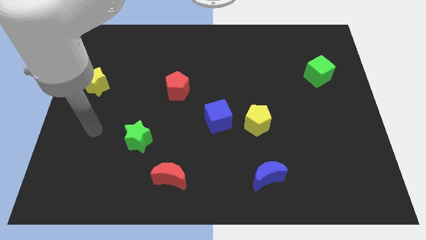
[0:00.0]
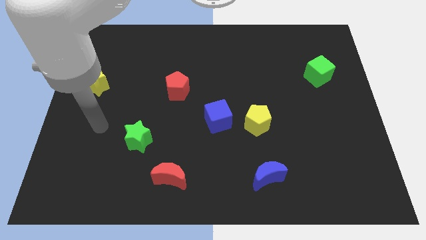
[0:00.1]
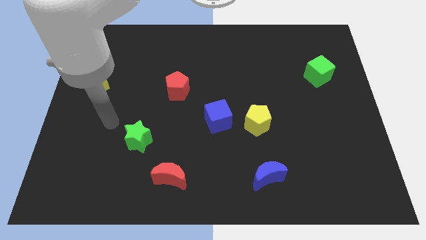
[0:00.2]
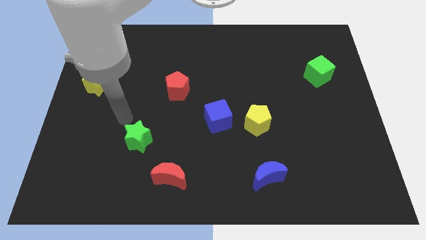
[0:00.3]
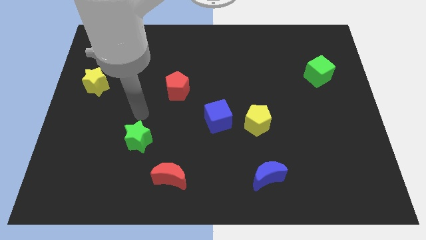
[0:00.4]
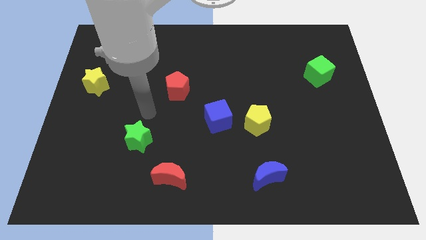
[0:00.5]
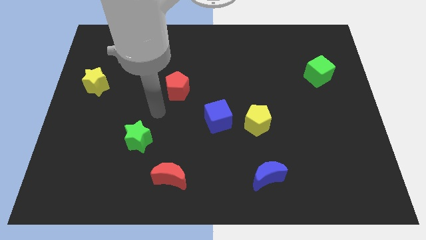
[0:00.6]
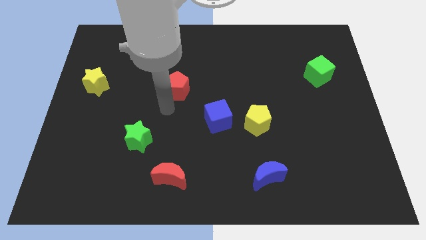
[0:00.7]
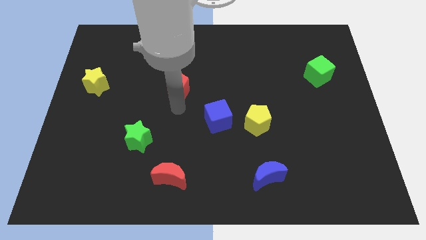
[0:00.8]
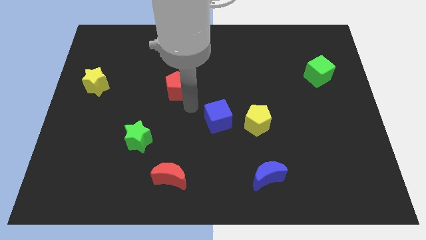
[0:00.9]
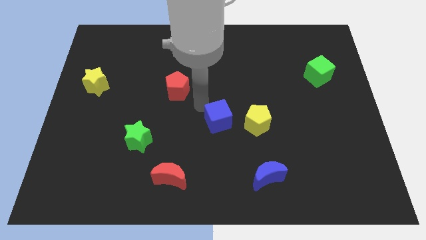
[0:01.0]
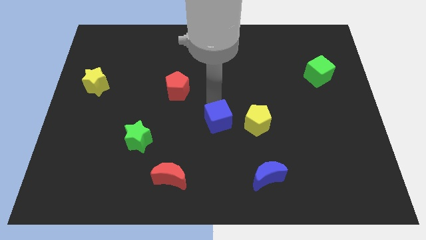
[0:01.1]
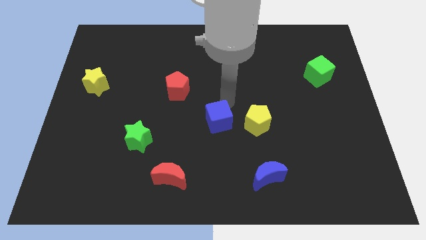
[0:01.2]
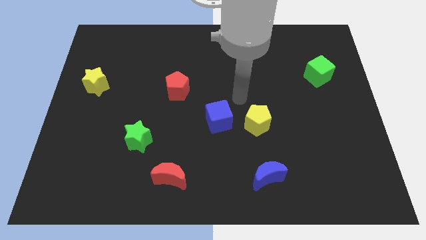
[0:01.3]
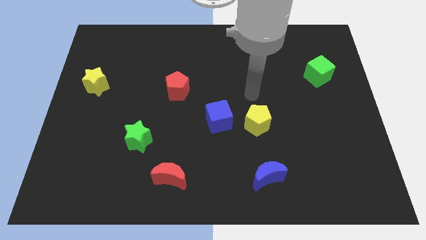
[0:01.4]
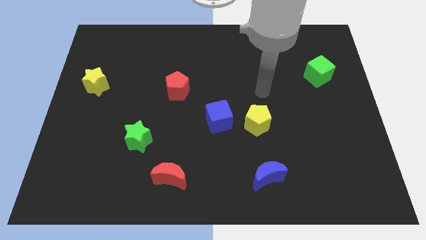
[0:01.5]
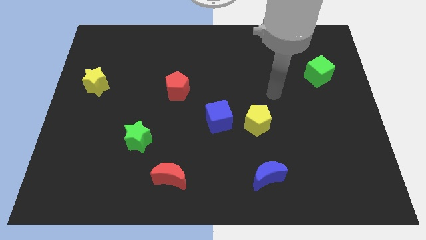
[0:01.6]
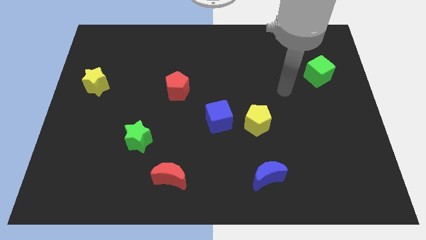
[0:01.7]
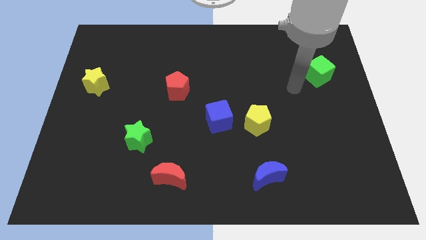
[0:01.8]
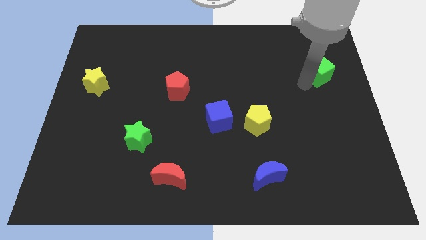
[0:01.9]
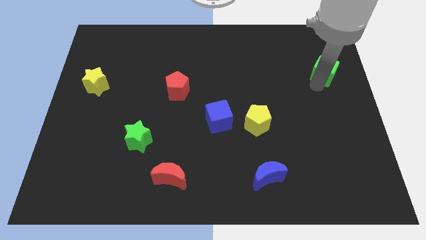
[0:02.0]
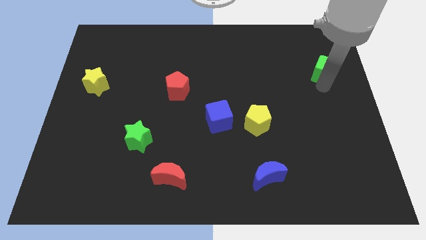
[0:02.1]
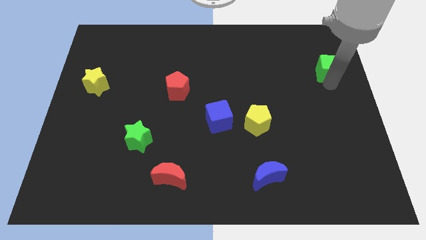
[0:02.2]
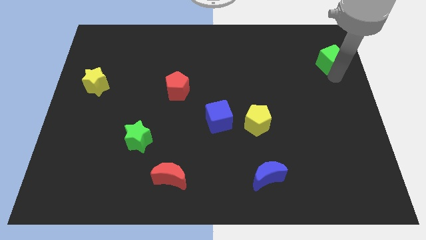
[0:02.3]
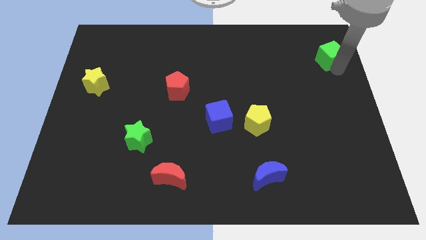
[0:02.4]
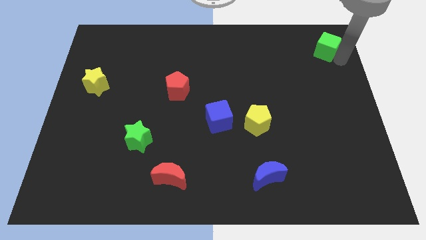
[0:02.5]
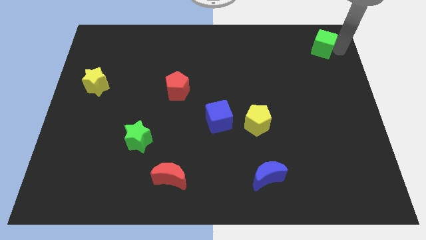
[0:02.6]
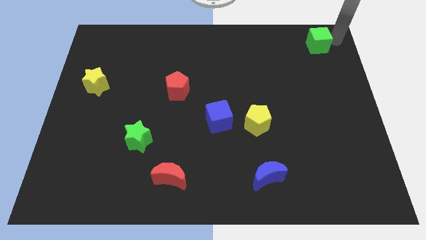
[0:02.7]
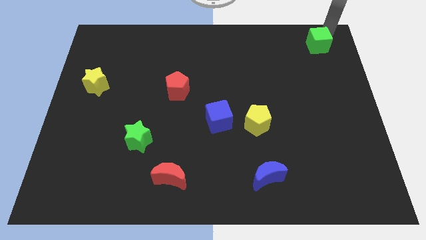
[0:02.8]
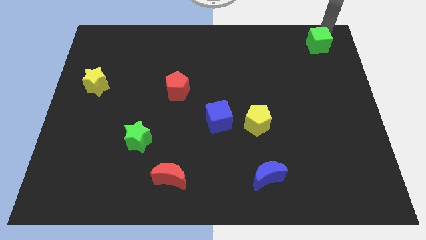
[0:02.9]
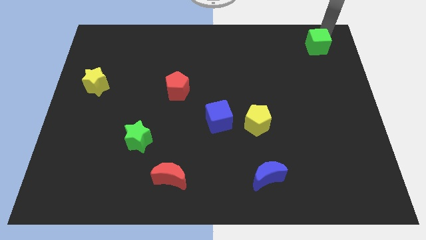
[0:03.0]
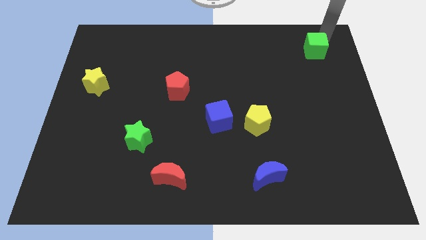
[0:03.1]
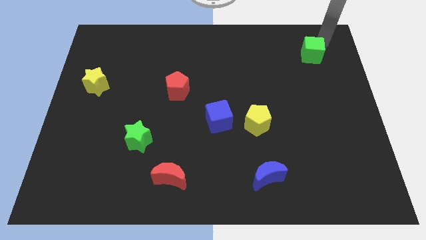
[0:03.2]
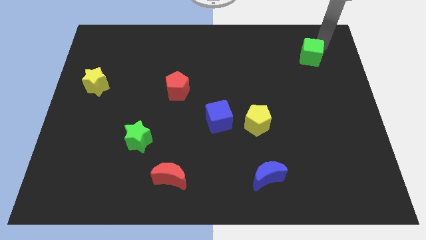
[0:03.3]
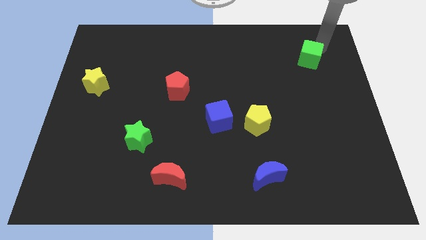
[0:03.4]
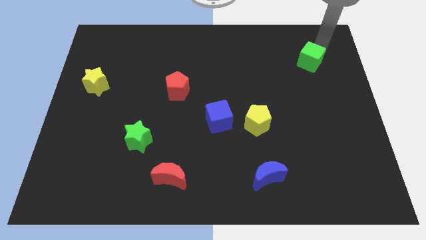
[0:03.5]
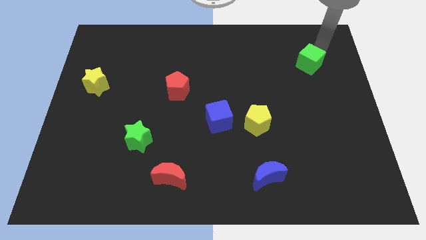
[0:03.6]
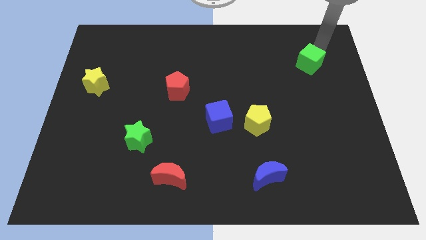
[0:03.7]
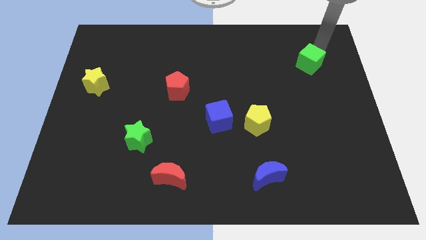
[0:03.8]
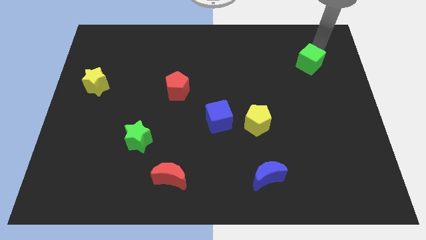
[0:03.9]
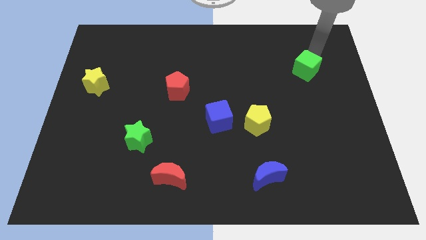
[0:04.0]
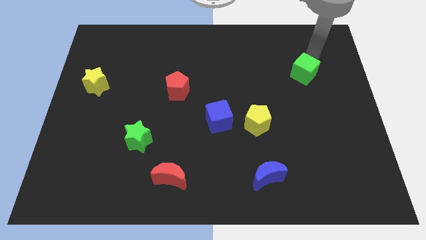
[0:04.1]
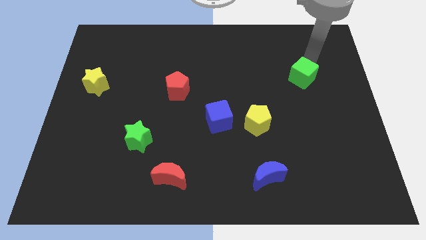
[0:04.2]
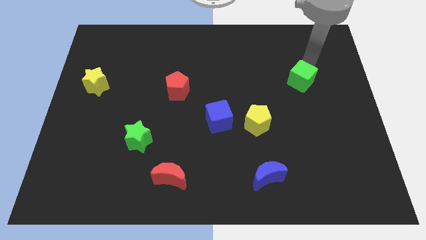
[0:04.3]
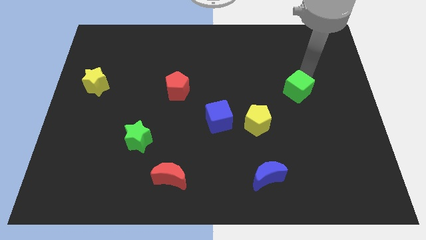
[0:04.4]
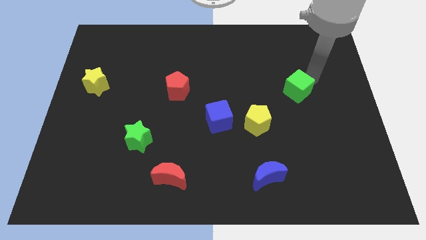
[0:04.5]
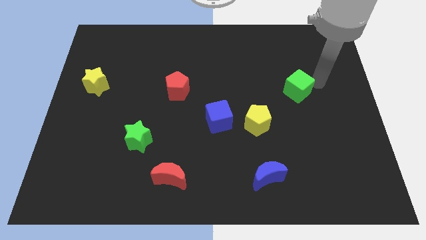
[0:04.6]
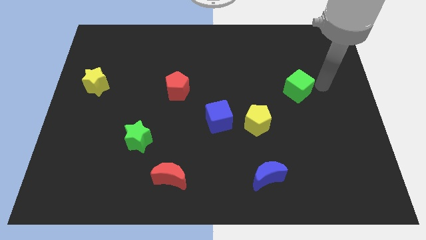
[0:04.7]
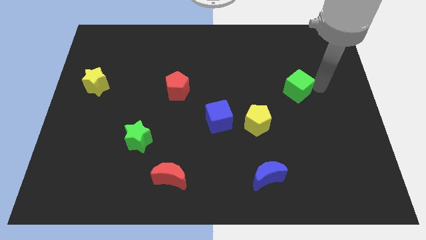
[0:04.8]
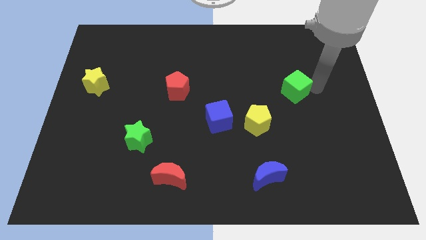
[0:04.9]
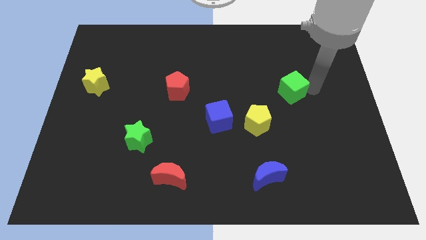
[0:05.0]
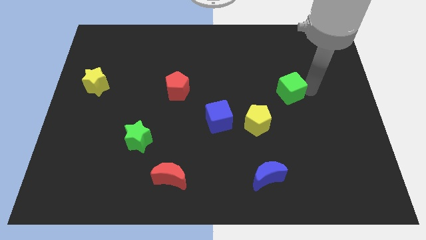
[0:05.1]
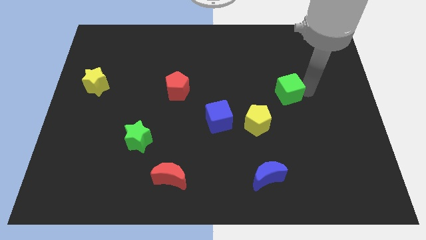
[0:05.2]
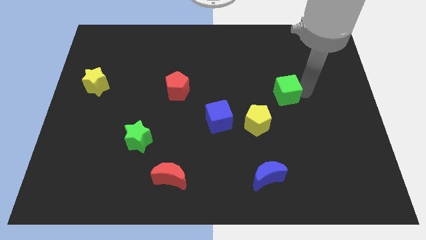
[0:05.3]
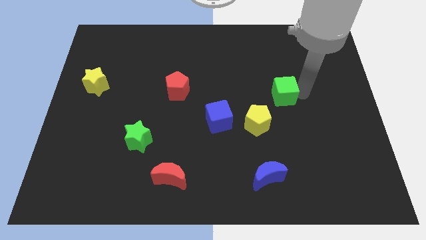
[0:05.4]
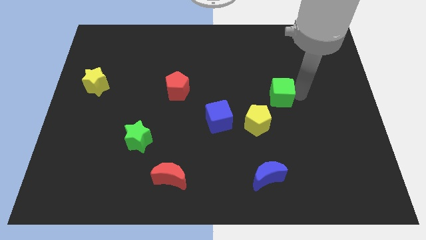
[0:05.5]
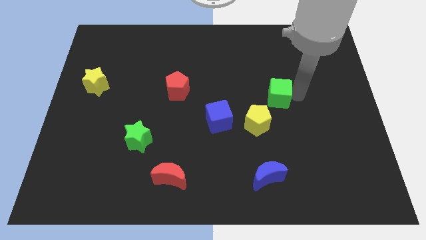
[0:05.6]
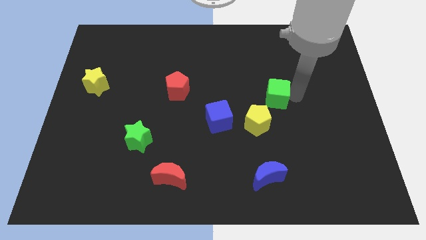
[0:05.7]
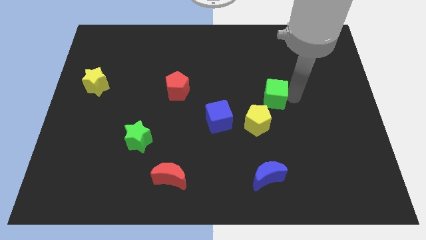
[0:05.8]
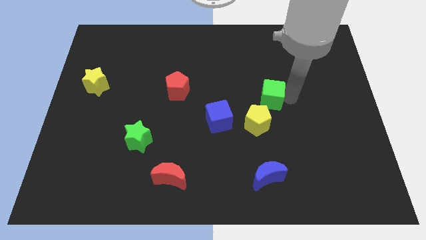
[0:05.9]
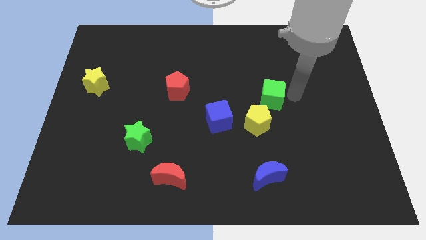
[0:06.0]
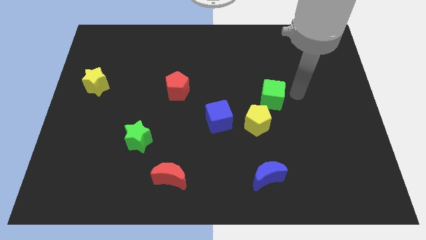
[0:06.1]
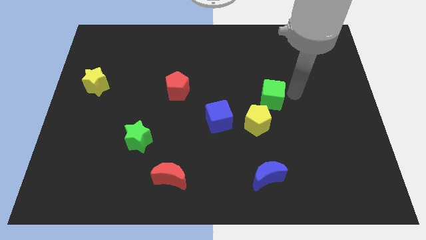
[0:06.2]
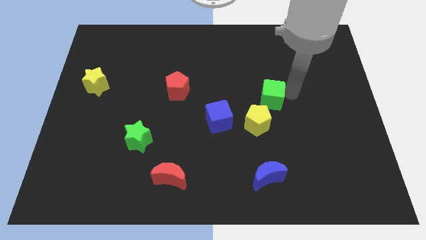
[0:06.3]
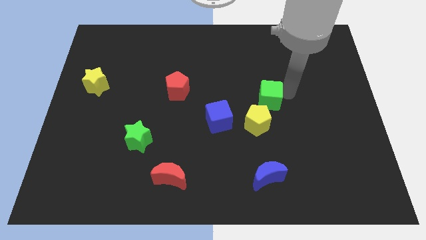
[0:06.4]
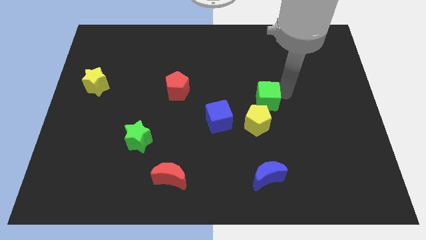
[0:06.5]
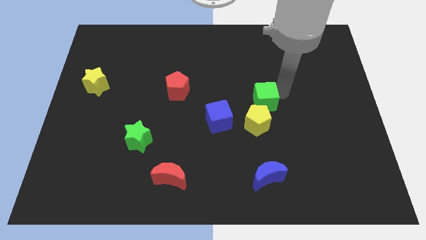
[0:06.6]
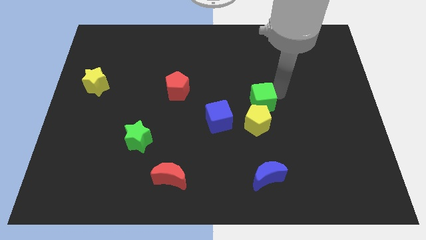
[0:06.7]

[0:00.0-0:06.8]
push the green cube to the top right of the blue cube
